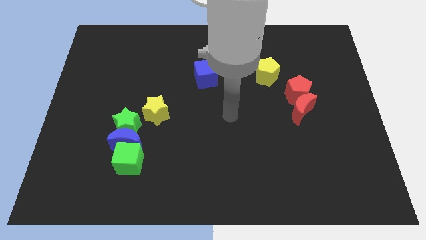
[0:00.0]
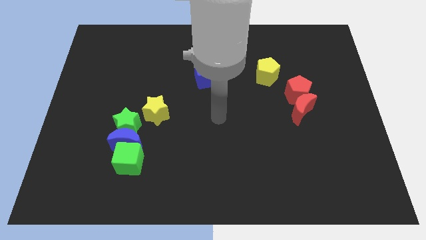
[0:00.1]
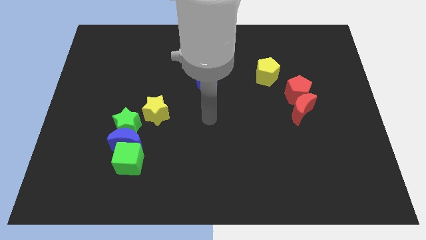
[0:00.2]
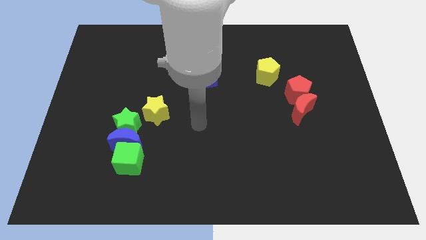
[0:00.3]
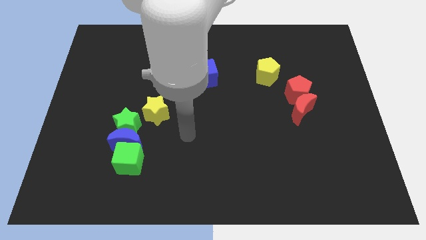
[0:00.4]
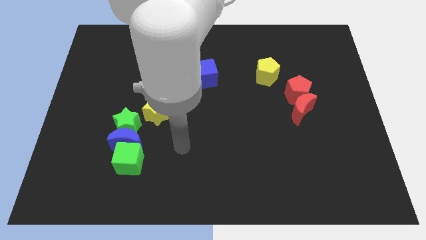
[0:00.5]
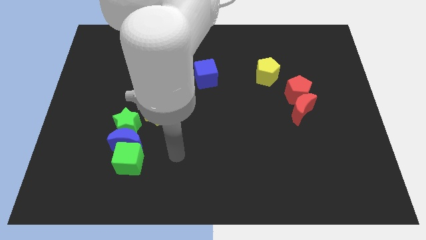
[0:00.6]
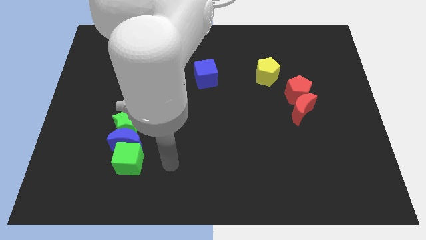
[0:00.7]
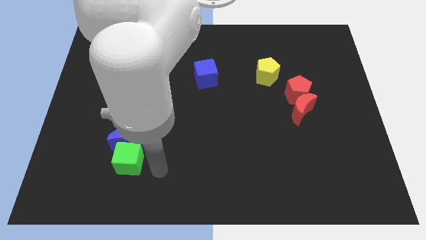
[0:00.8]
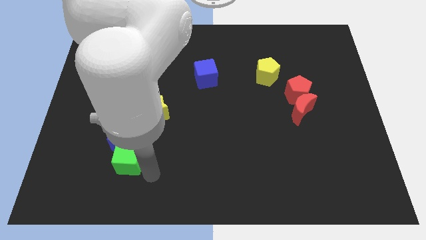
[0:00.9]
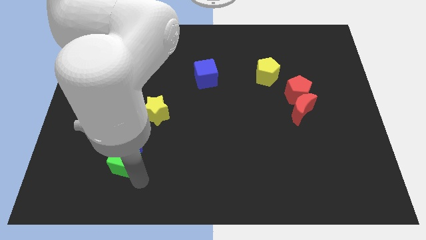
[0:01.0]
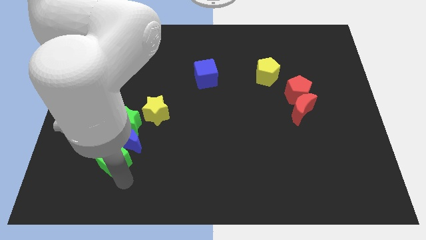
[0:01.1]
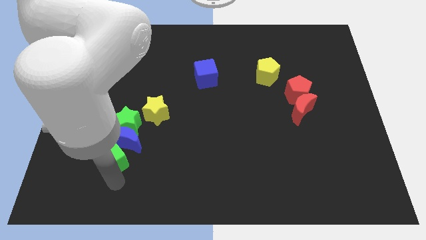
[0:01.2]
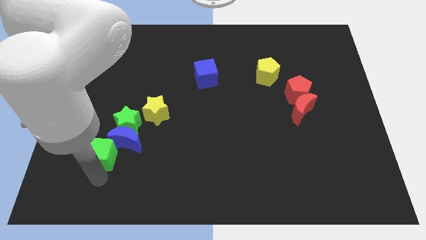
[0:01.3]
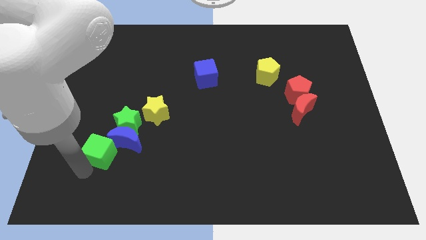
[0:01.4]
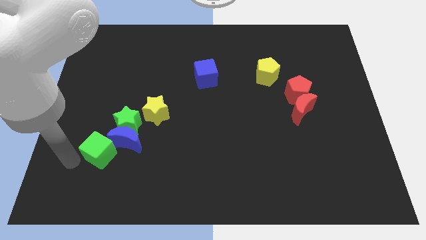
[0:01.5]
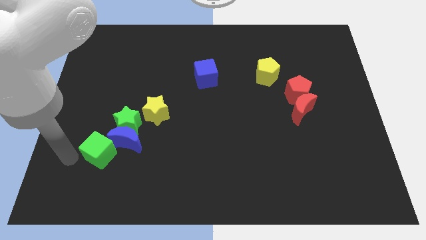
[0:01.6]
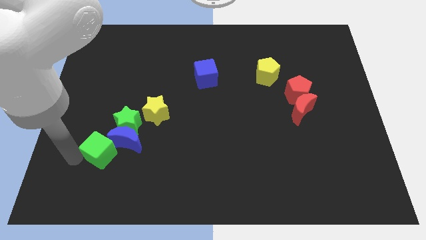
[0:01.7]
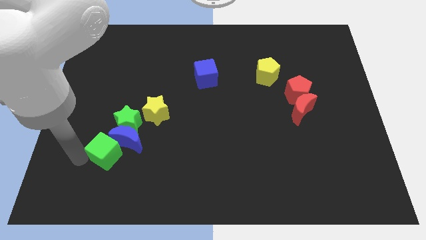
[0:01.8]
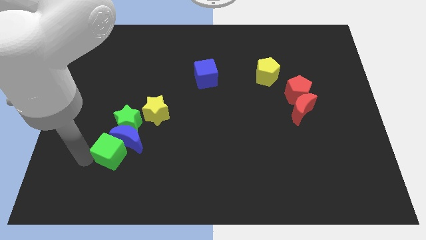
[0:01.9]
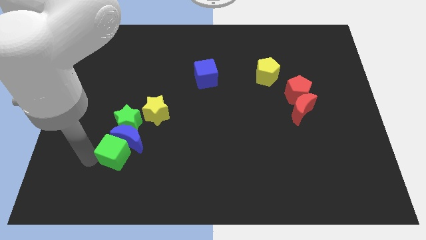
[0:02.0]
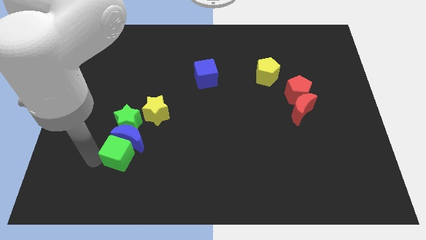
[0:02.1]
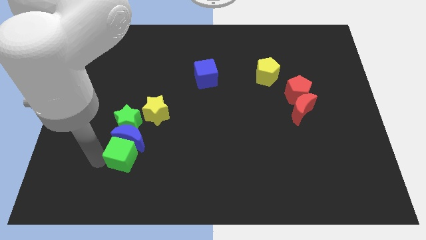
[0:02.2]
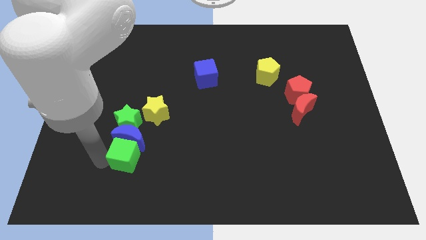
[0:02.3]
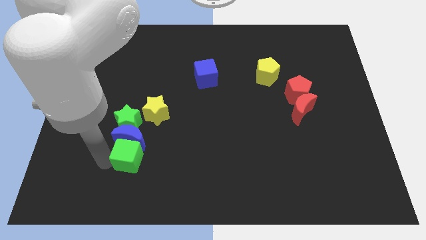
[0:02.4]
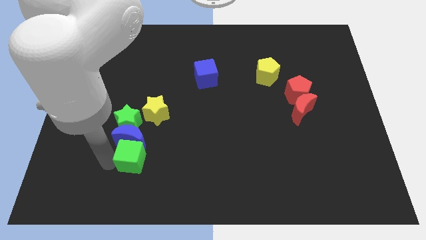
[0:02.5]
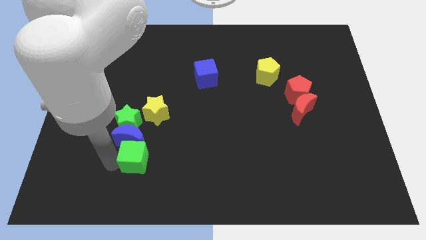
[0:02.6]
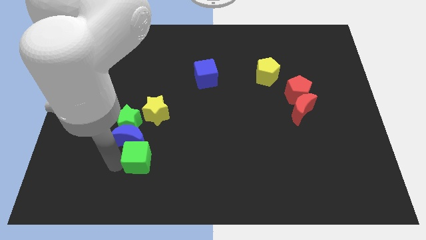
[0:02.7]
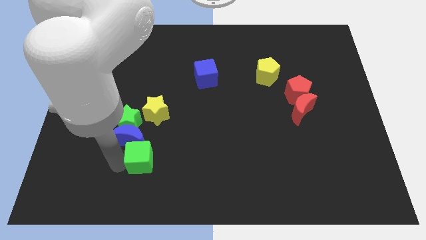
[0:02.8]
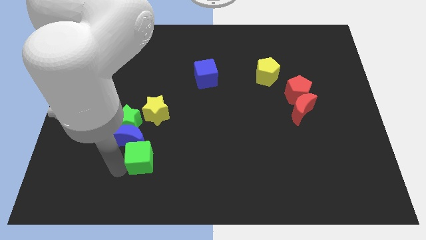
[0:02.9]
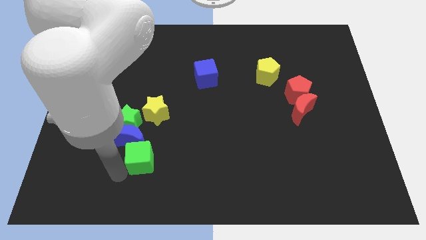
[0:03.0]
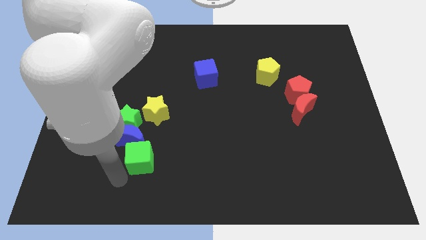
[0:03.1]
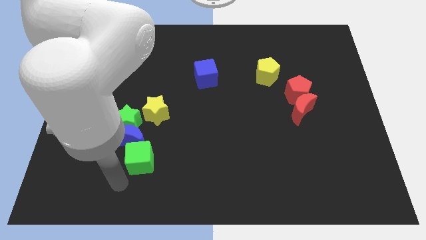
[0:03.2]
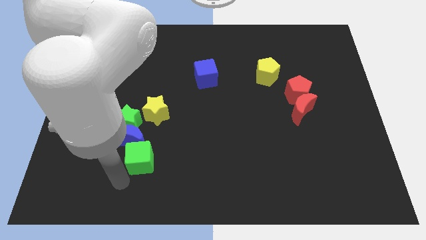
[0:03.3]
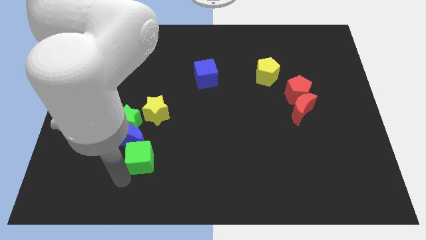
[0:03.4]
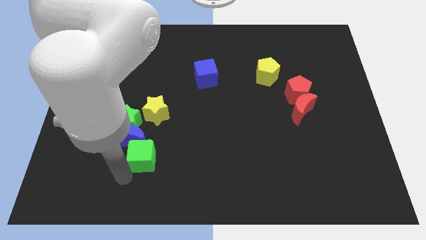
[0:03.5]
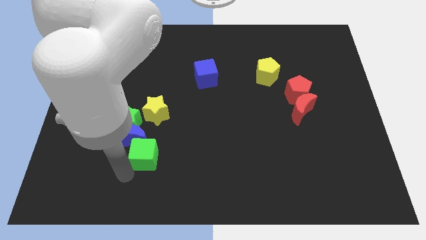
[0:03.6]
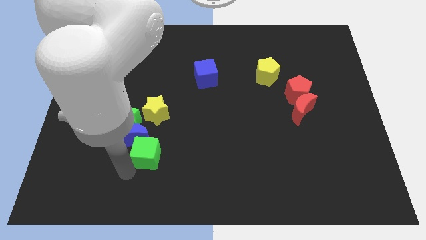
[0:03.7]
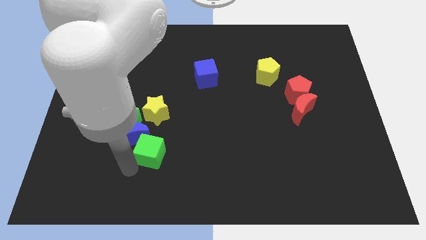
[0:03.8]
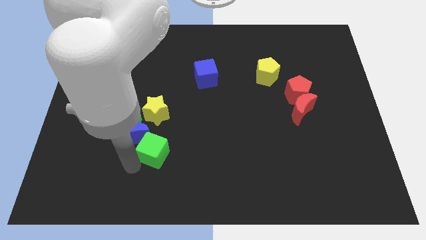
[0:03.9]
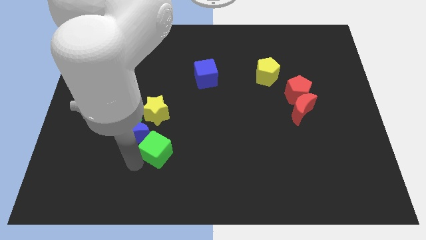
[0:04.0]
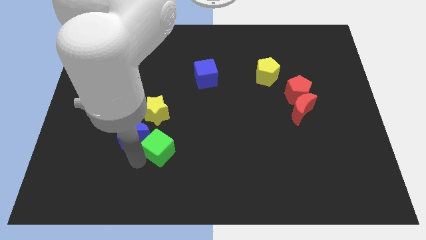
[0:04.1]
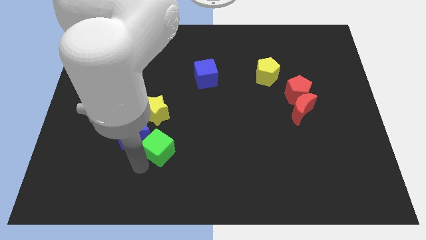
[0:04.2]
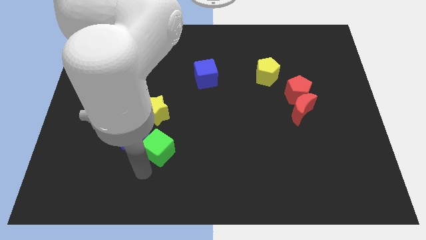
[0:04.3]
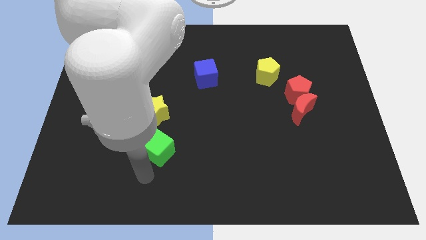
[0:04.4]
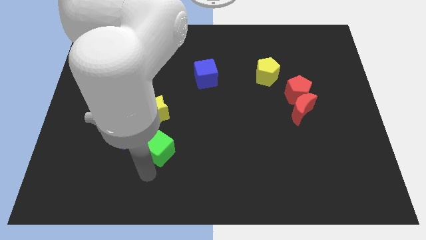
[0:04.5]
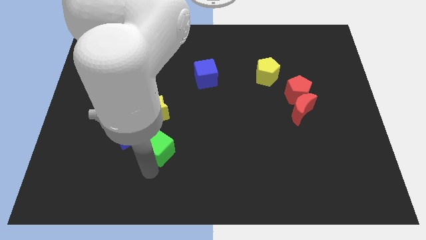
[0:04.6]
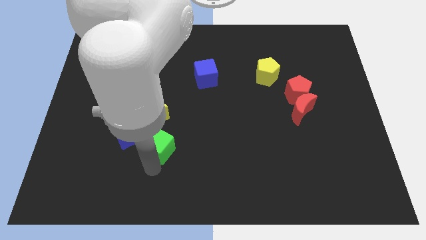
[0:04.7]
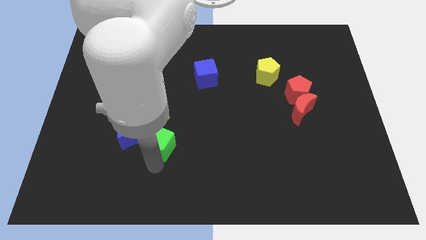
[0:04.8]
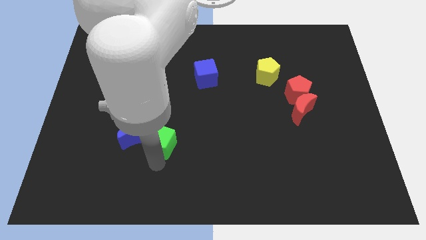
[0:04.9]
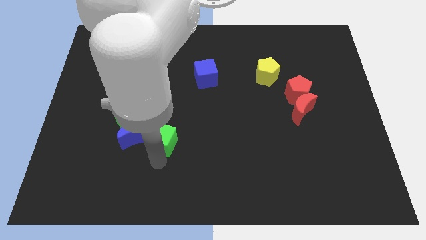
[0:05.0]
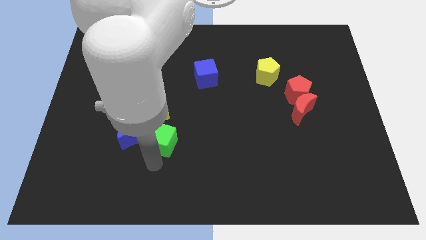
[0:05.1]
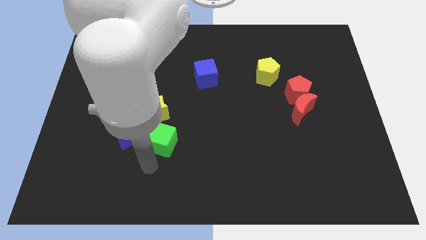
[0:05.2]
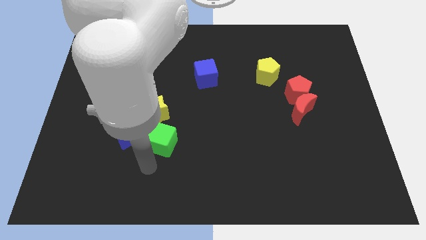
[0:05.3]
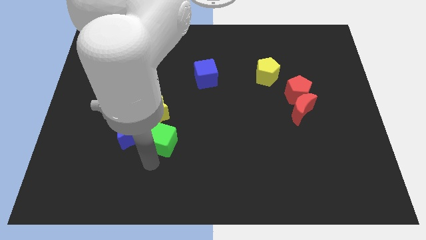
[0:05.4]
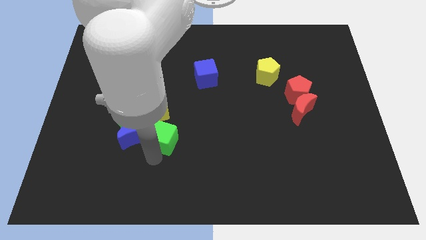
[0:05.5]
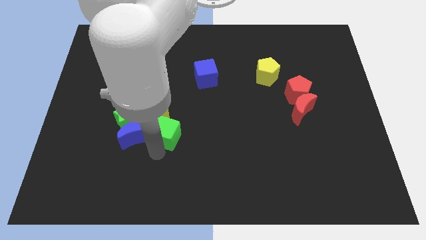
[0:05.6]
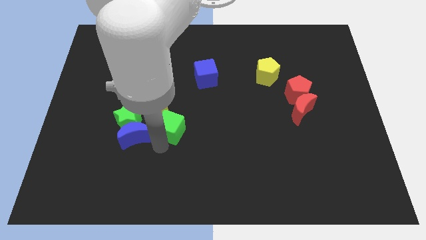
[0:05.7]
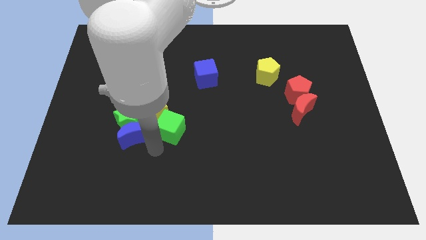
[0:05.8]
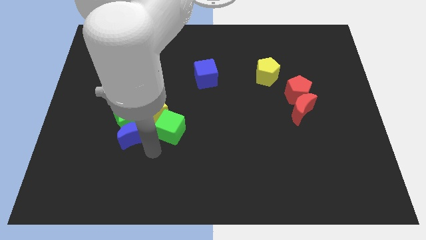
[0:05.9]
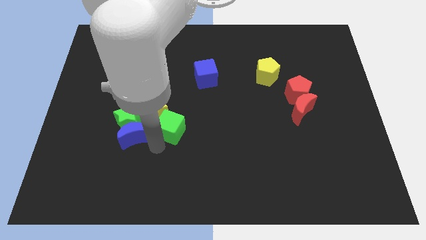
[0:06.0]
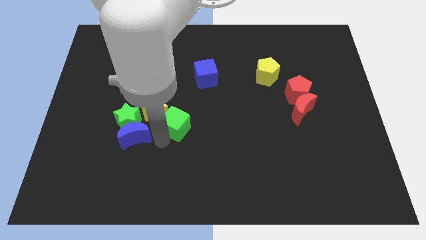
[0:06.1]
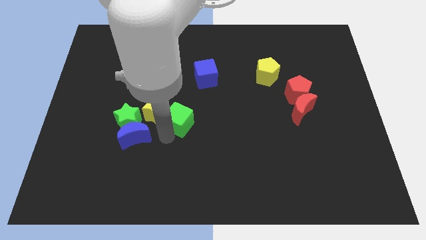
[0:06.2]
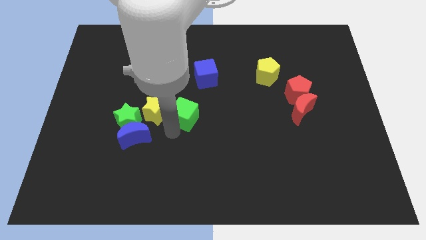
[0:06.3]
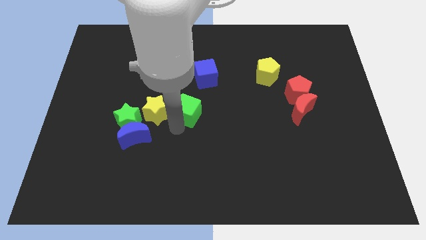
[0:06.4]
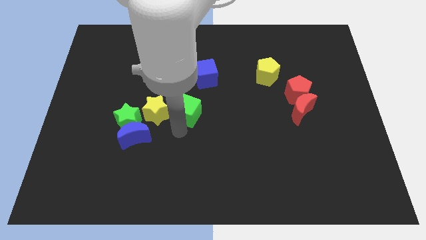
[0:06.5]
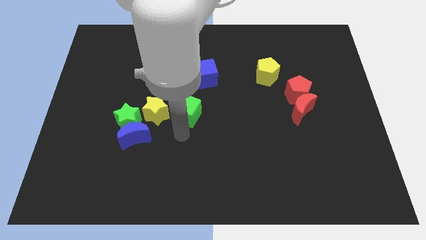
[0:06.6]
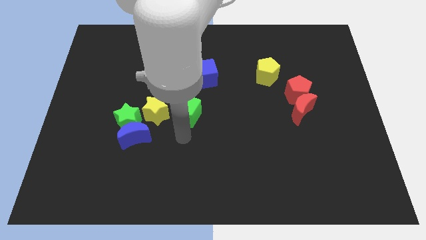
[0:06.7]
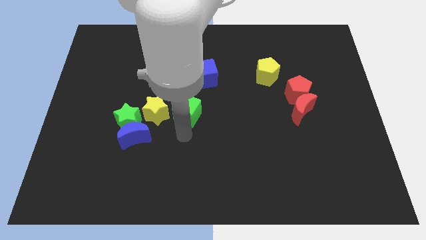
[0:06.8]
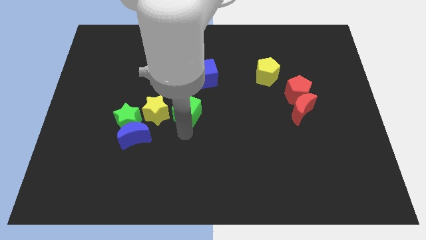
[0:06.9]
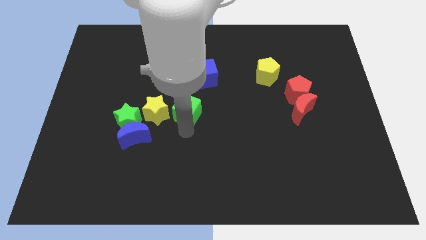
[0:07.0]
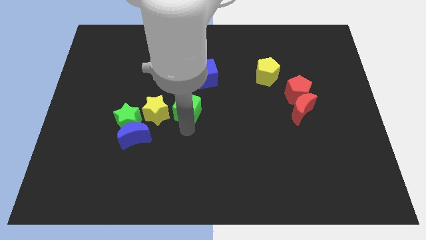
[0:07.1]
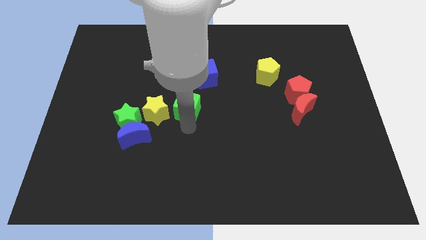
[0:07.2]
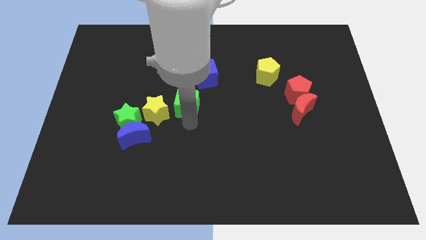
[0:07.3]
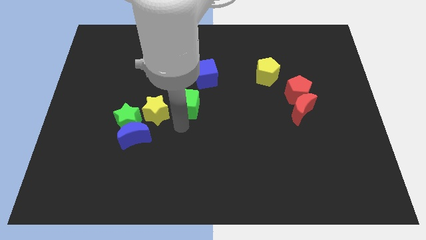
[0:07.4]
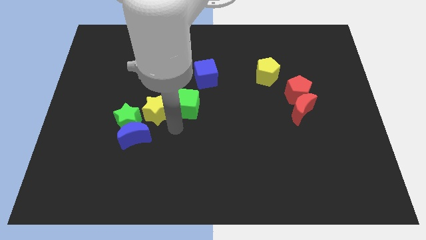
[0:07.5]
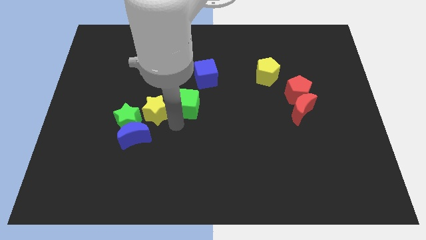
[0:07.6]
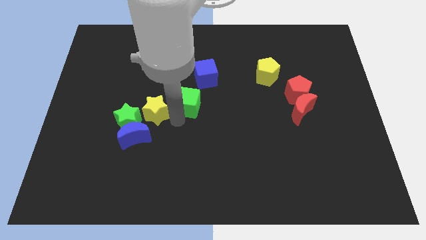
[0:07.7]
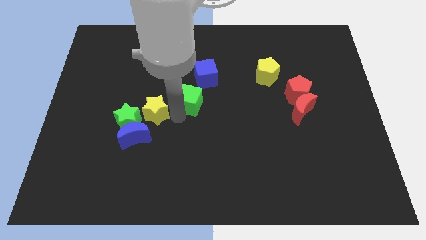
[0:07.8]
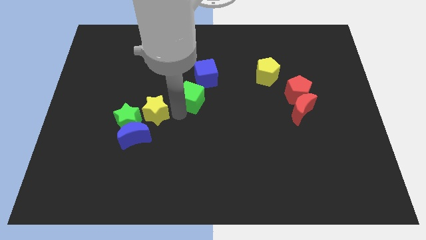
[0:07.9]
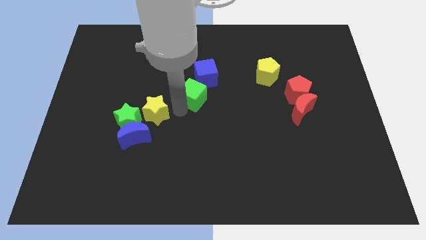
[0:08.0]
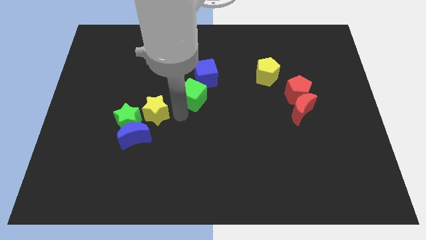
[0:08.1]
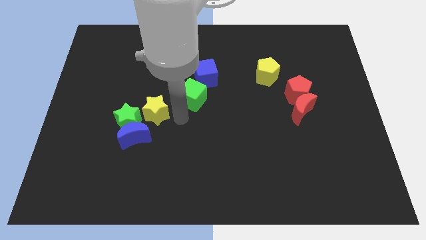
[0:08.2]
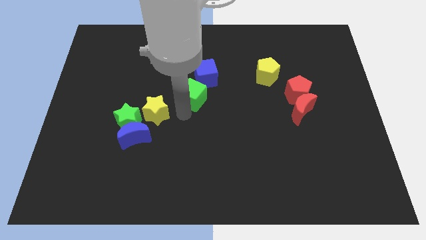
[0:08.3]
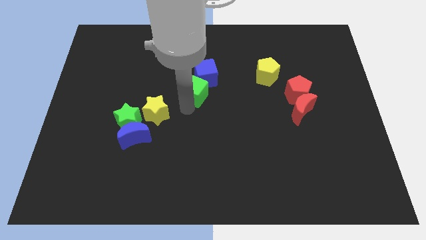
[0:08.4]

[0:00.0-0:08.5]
slide the green cube next to the blue cube
